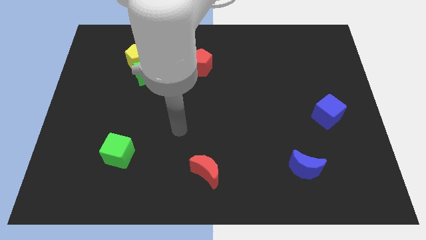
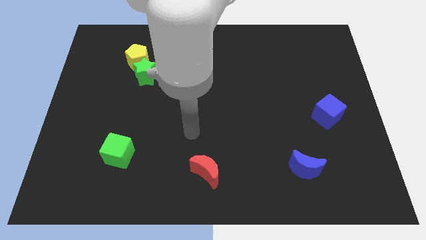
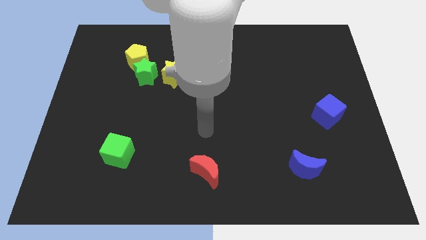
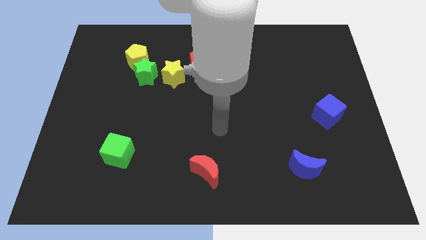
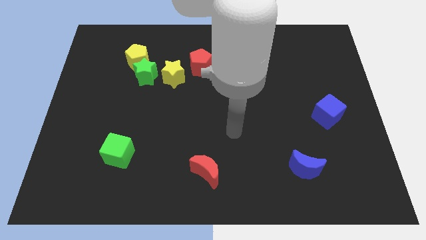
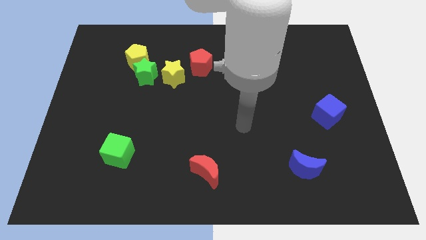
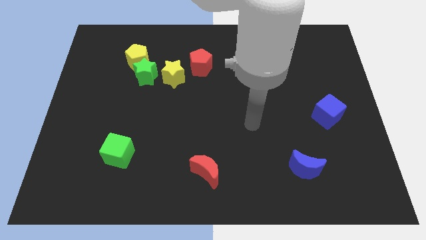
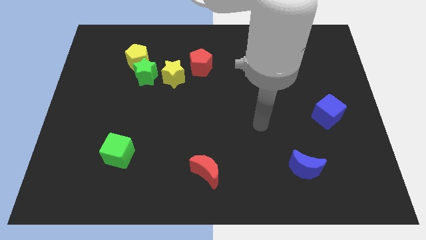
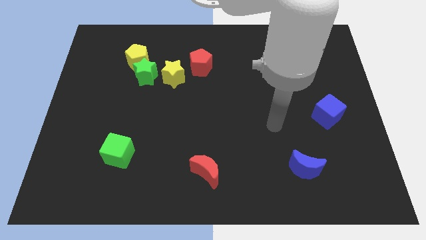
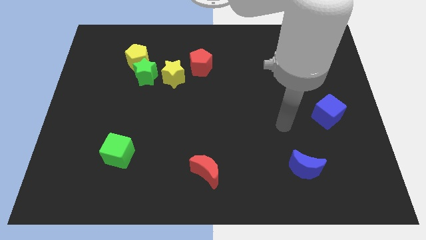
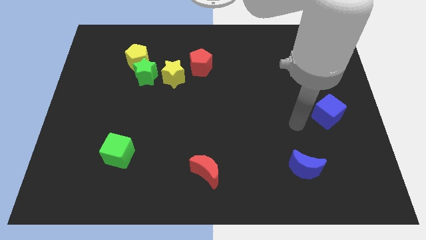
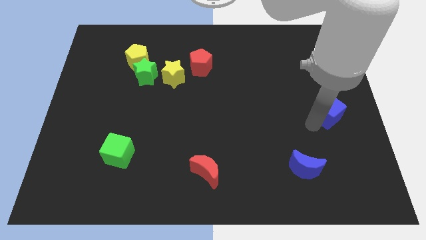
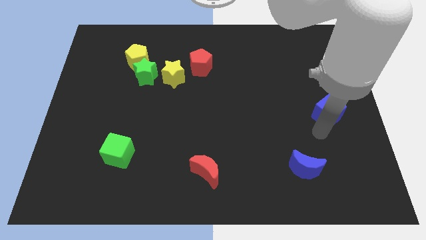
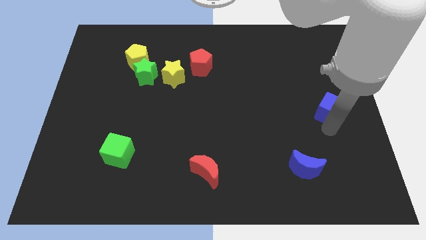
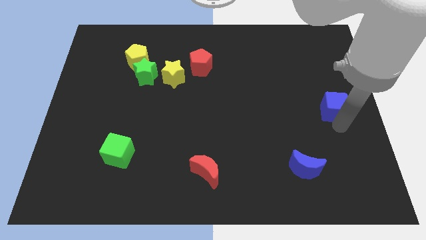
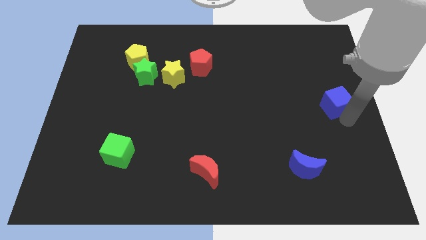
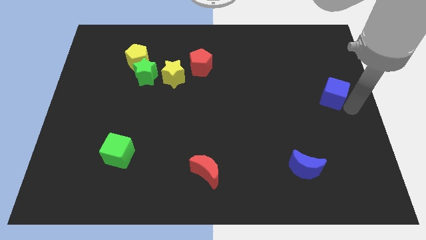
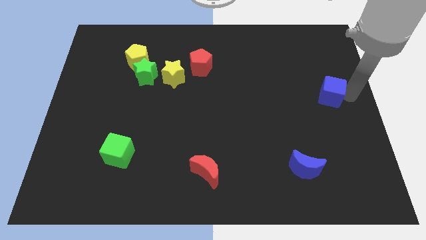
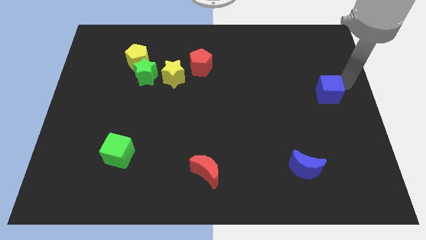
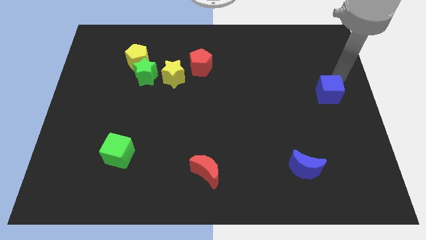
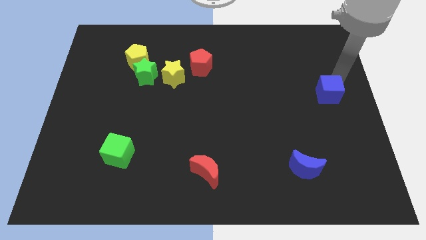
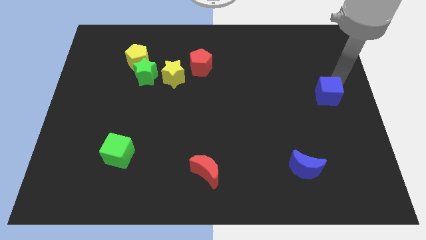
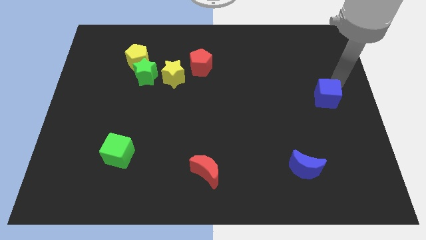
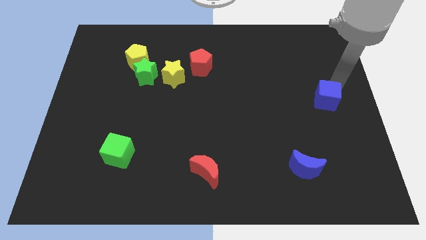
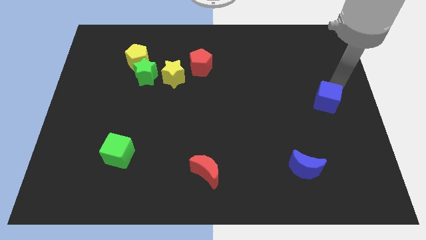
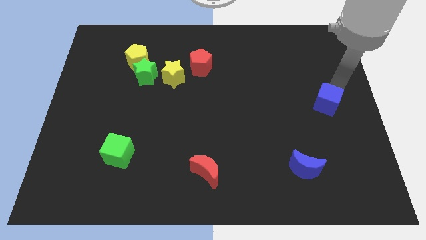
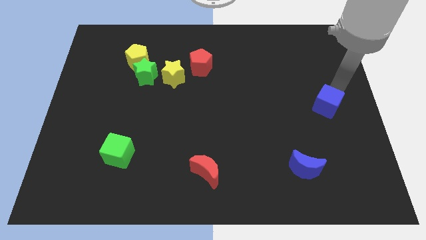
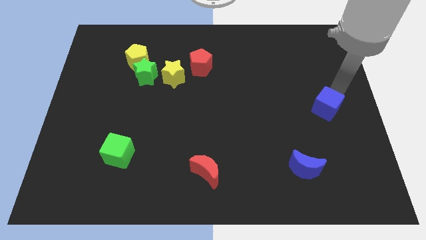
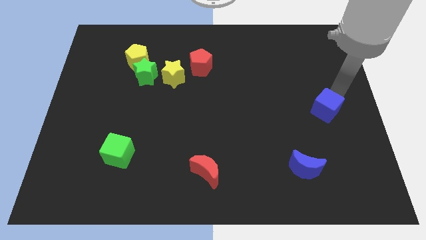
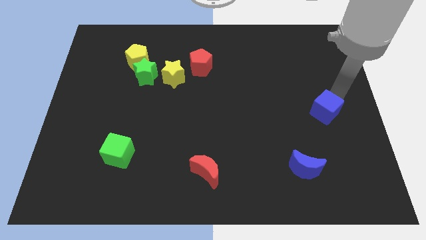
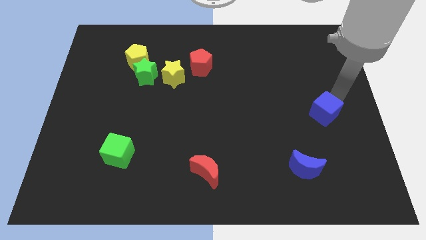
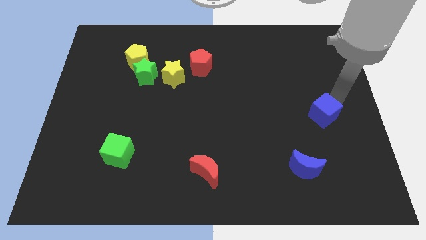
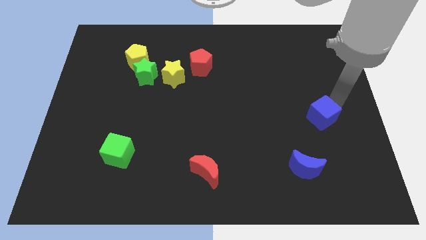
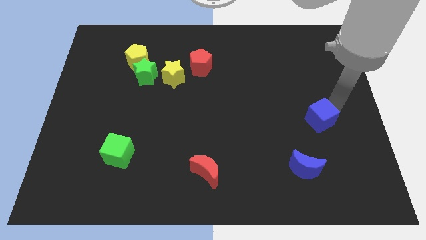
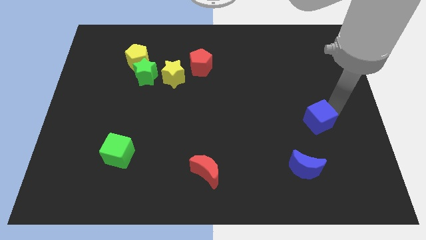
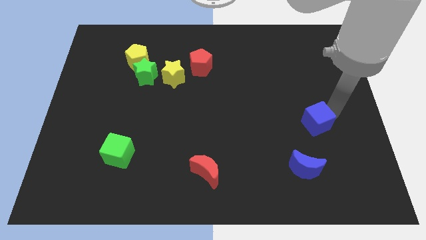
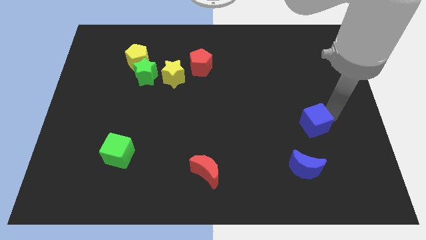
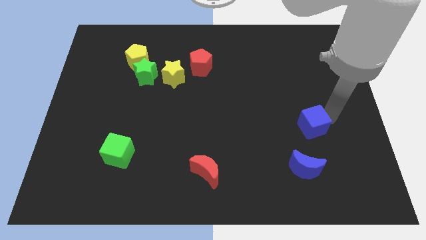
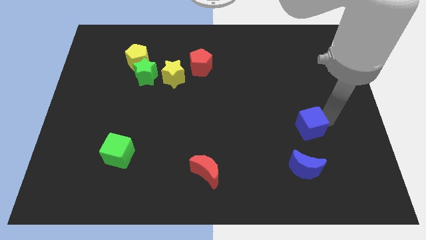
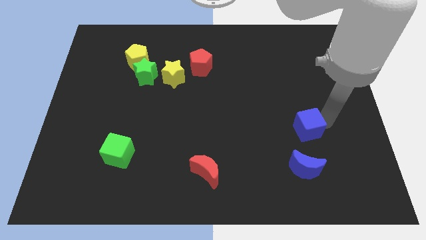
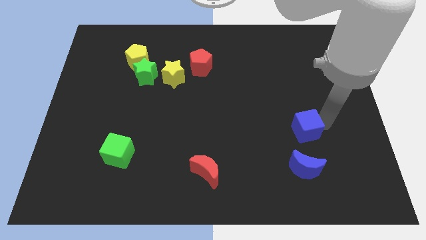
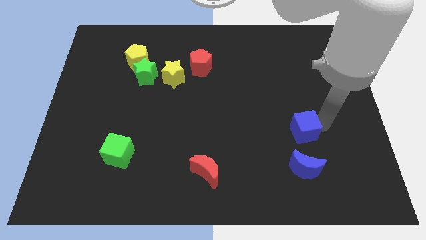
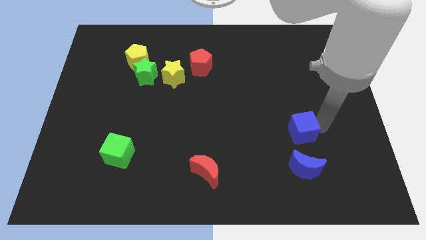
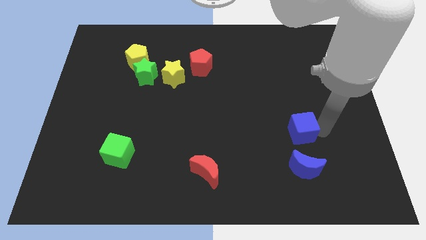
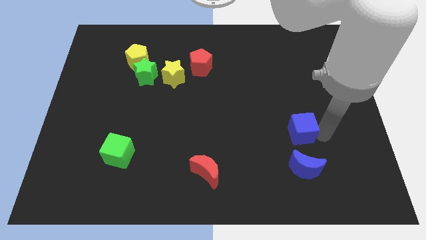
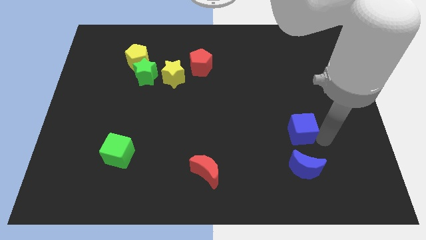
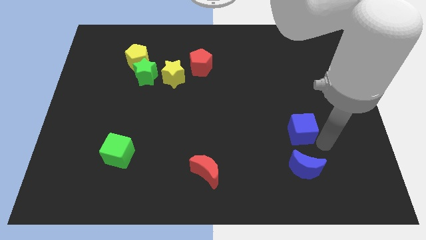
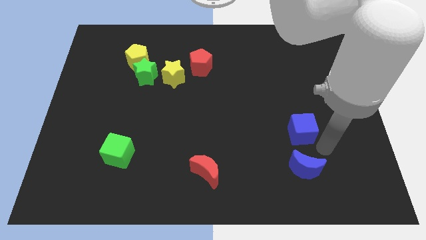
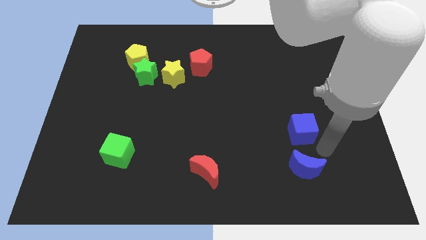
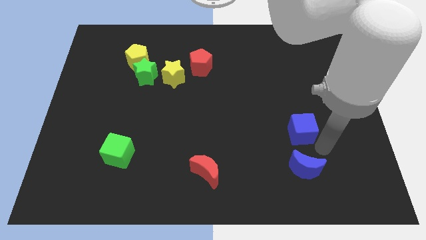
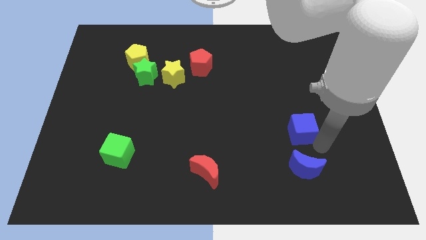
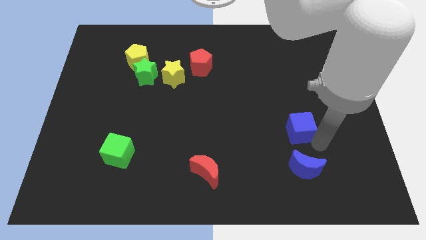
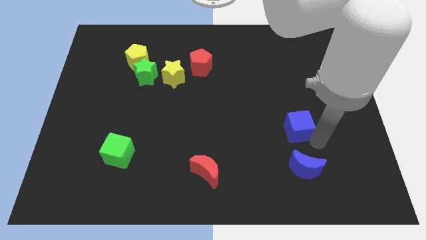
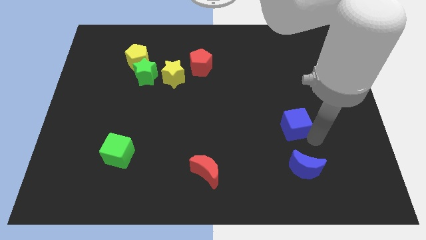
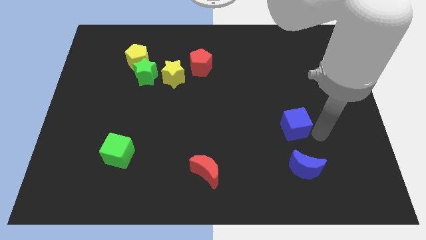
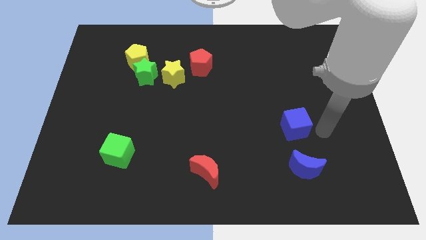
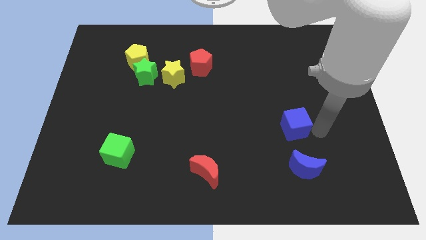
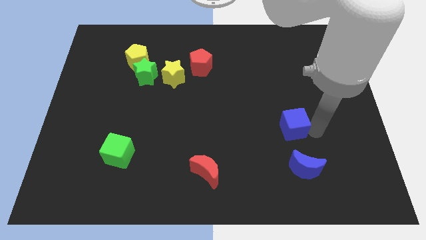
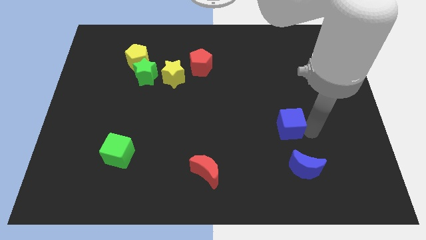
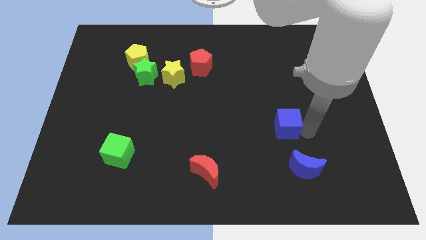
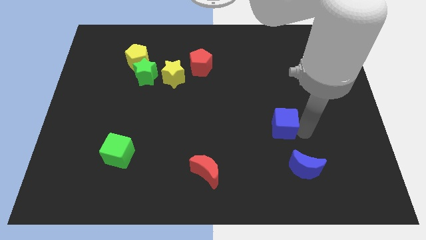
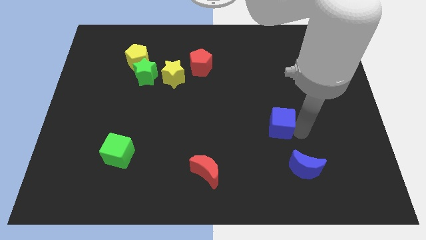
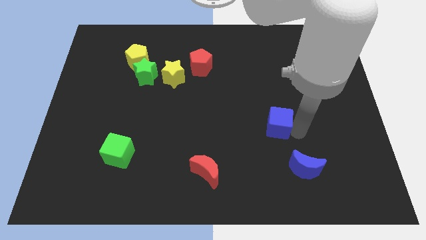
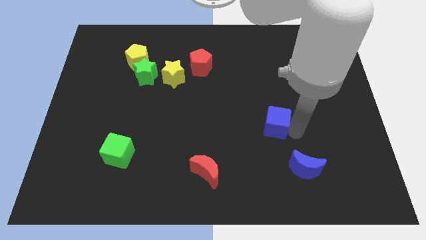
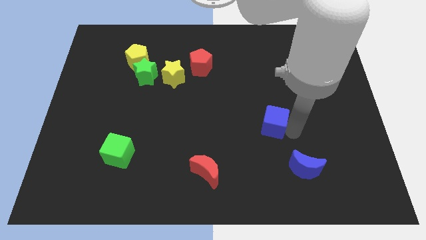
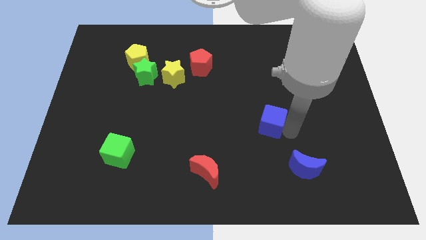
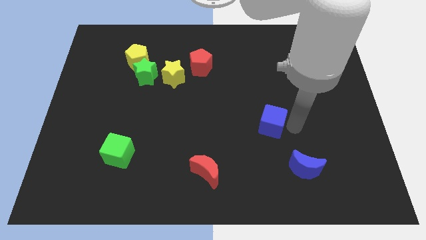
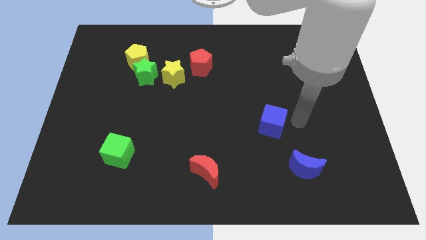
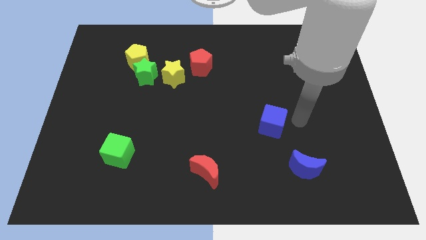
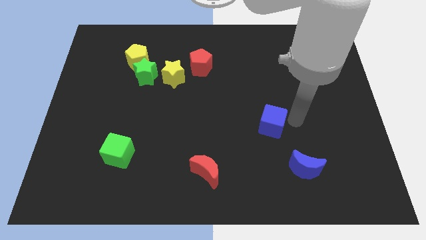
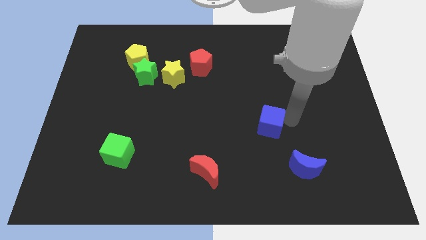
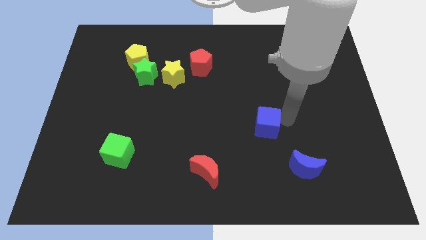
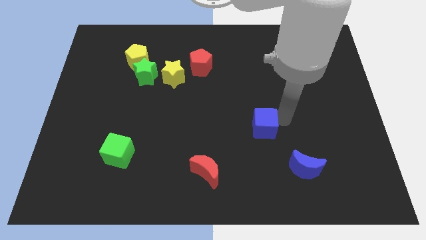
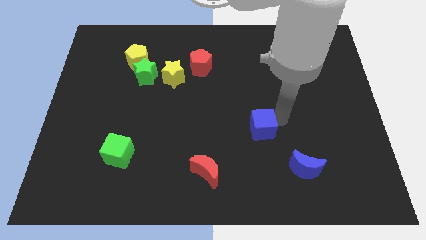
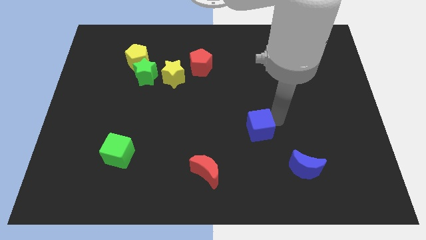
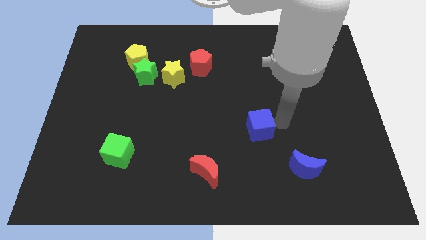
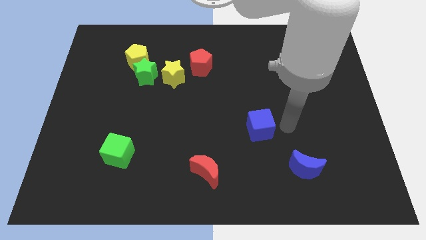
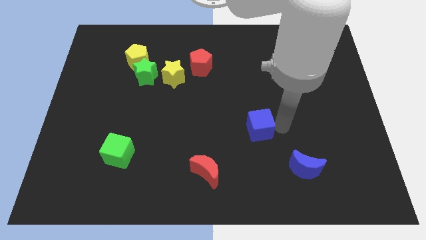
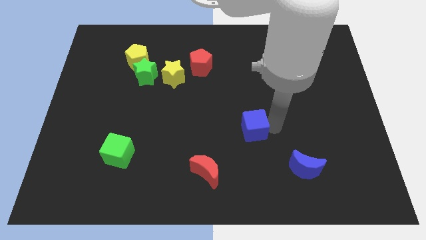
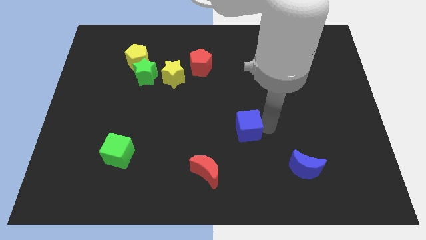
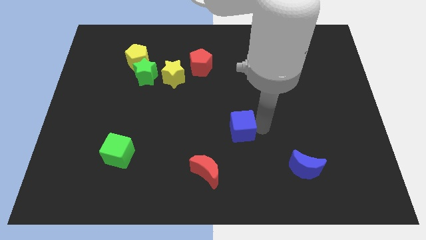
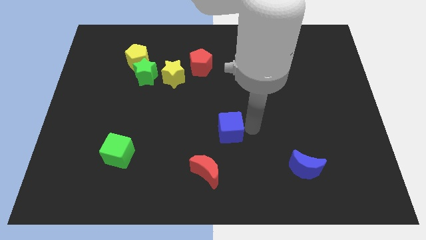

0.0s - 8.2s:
slide the blue cube to the top of the red moon

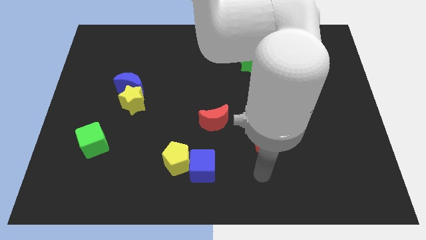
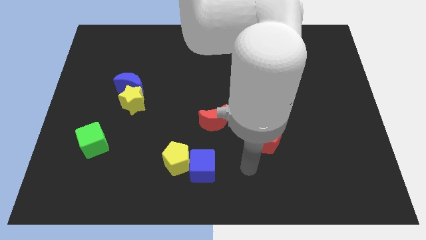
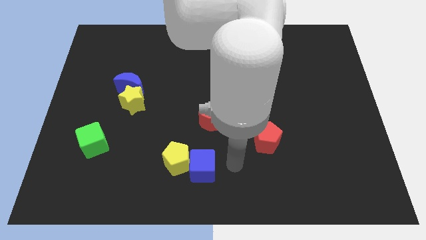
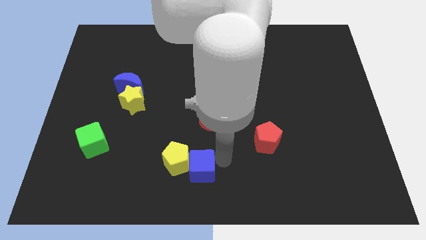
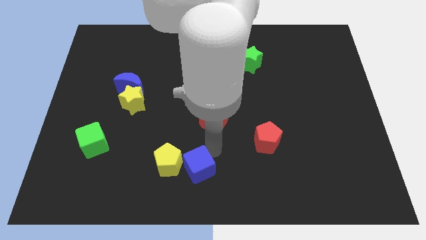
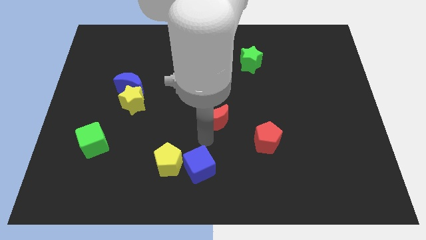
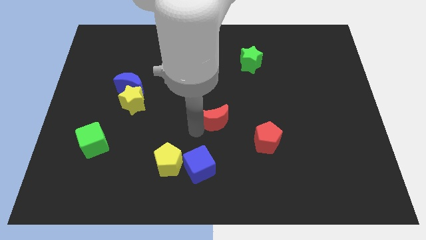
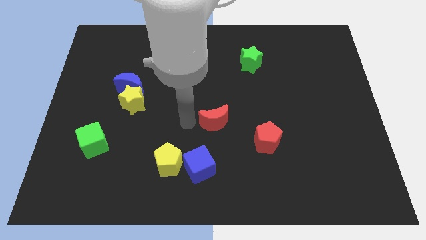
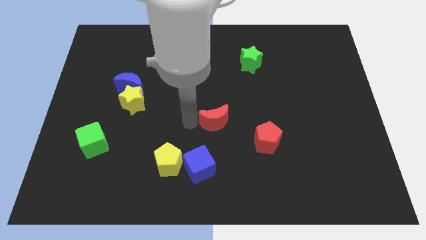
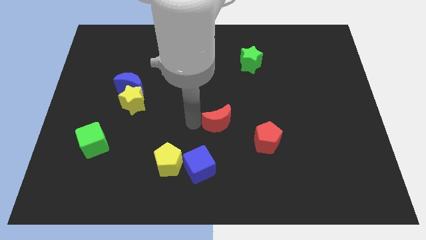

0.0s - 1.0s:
push the red moon to the top left of the red pentagon
